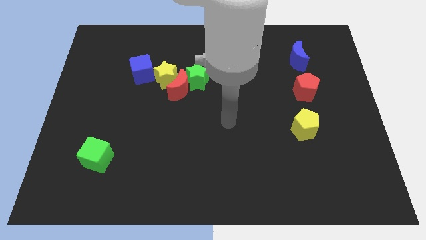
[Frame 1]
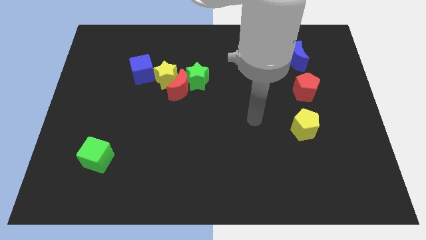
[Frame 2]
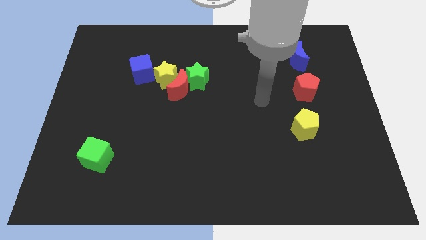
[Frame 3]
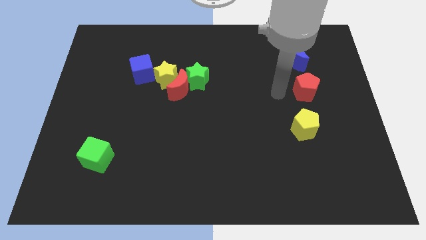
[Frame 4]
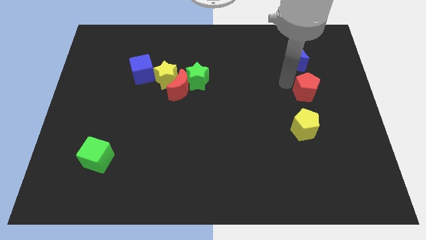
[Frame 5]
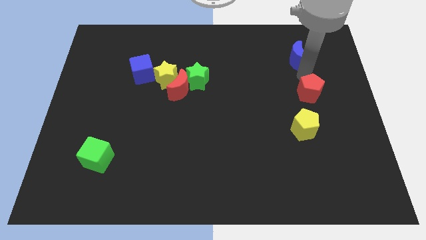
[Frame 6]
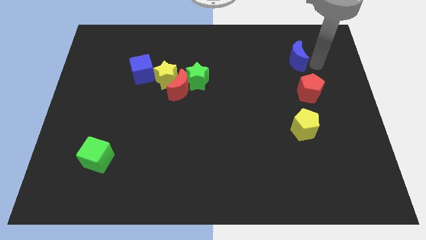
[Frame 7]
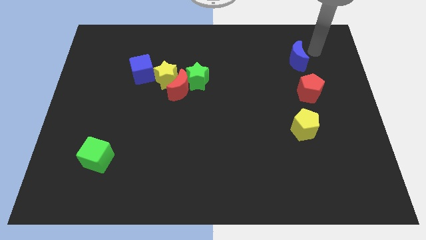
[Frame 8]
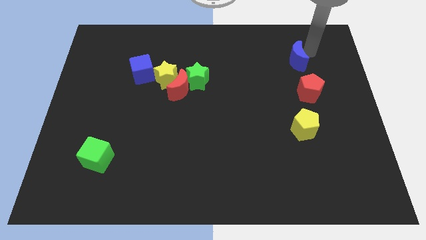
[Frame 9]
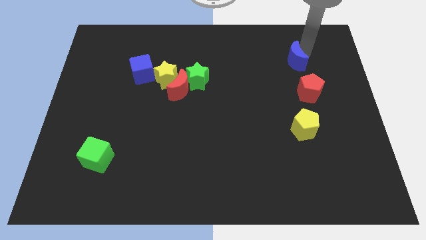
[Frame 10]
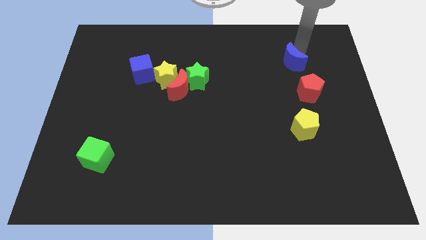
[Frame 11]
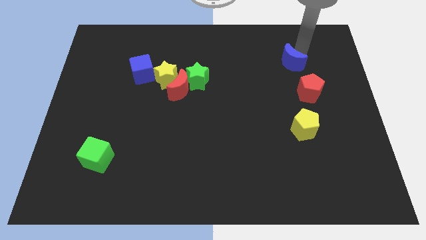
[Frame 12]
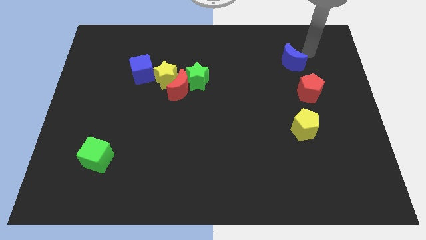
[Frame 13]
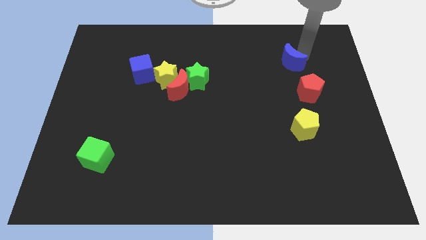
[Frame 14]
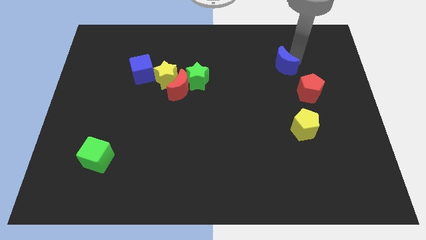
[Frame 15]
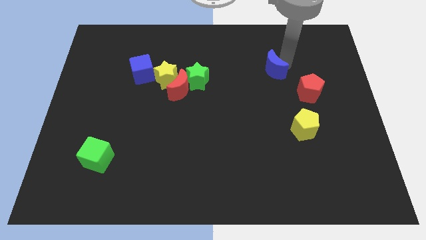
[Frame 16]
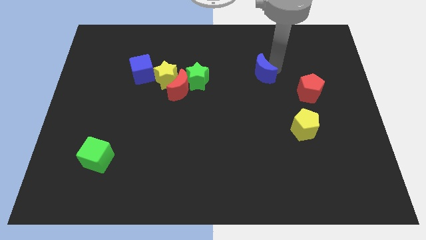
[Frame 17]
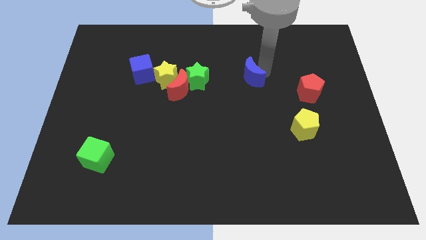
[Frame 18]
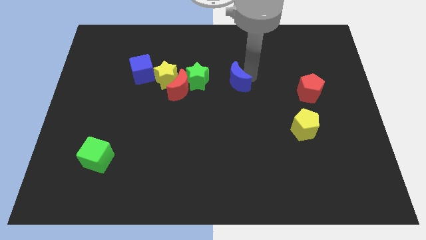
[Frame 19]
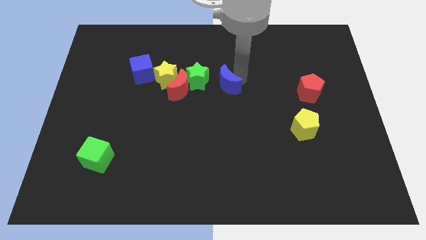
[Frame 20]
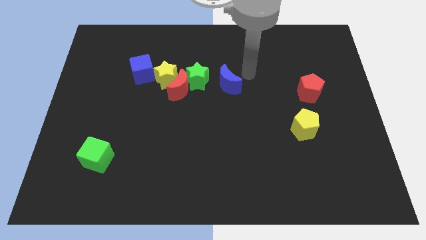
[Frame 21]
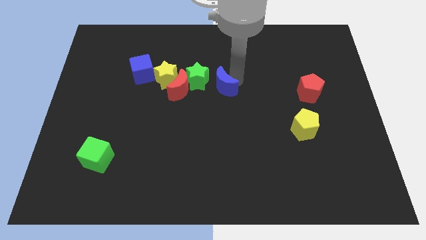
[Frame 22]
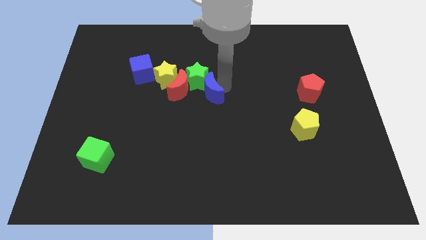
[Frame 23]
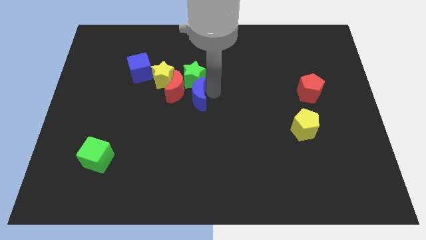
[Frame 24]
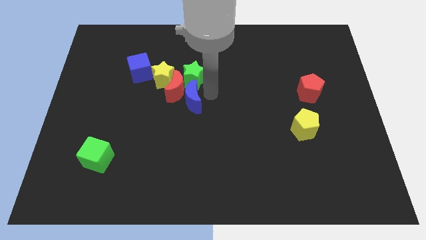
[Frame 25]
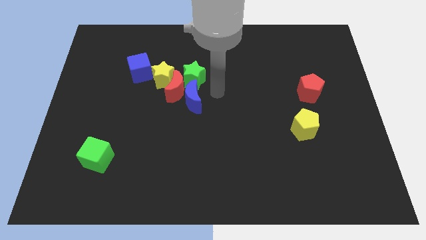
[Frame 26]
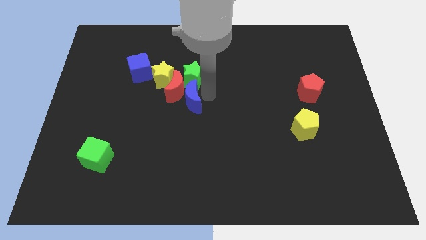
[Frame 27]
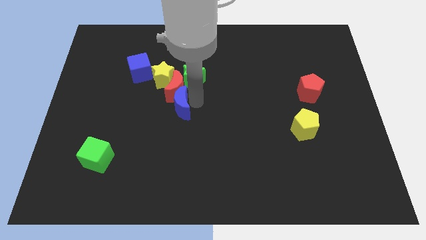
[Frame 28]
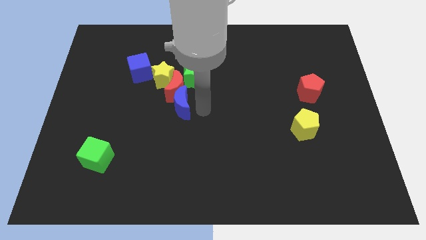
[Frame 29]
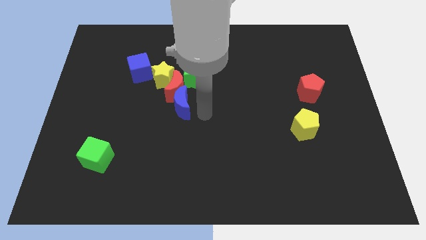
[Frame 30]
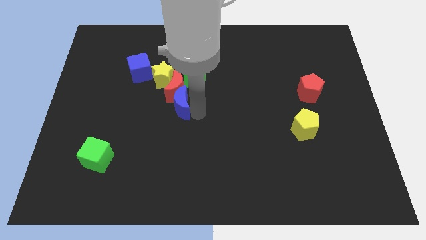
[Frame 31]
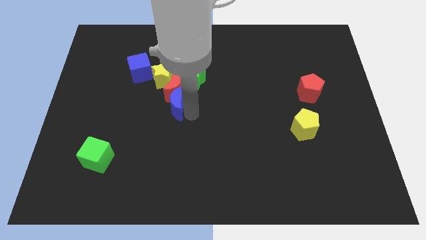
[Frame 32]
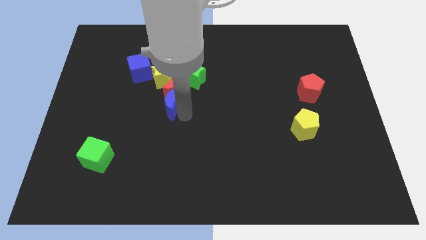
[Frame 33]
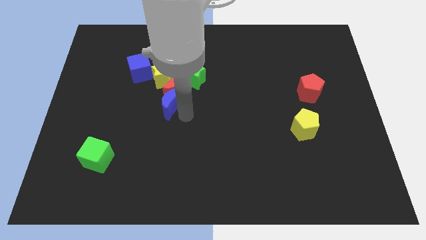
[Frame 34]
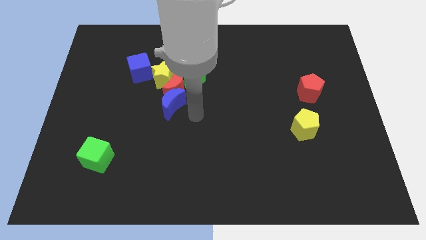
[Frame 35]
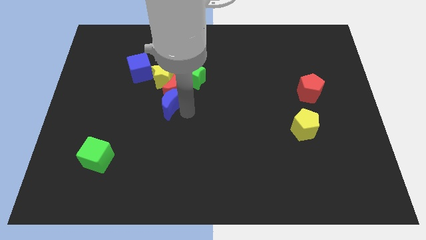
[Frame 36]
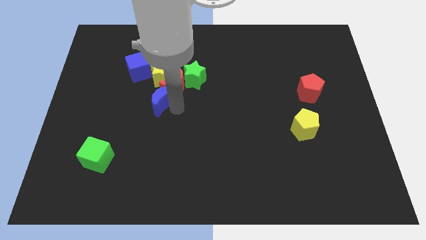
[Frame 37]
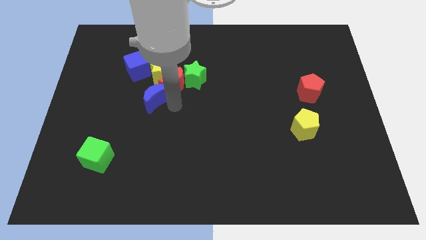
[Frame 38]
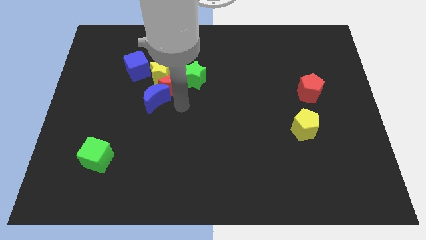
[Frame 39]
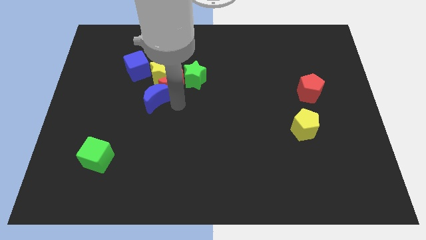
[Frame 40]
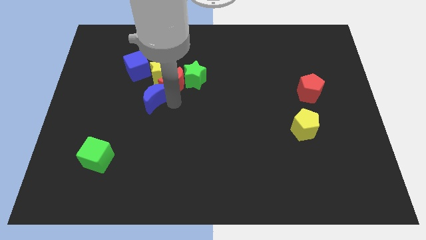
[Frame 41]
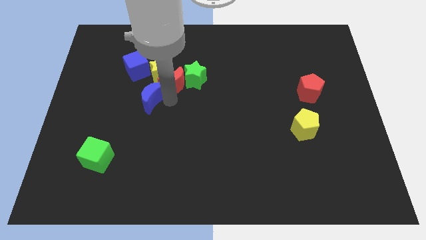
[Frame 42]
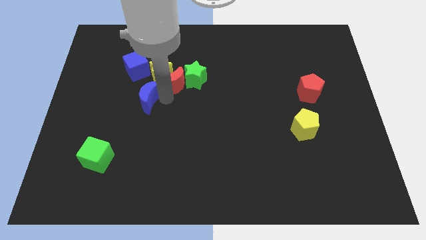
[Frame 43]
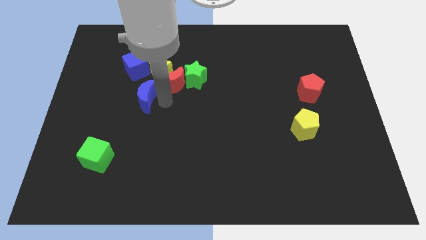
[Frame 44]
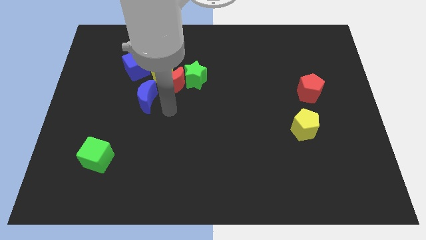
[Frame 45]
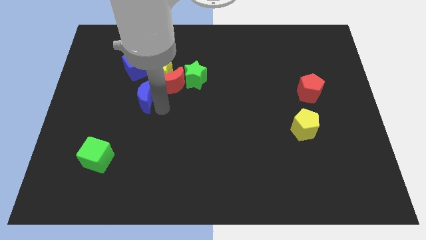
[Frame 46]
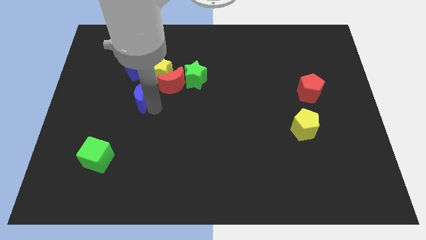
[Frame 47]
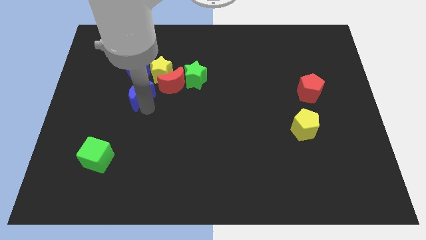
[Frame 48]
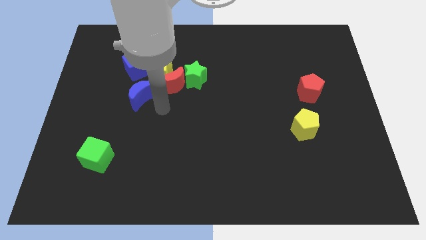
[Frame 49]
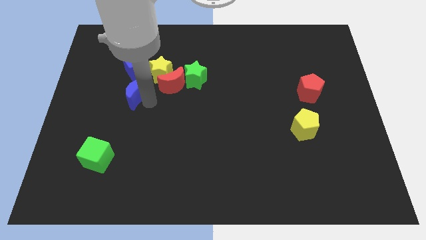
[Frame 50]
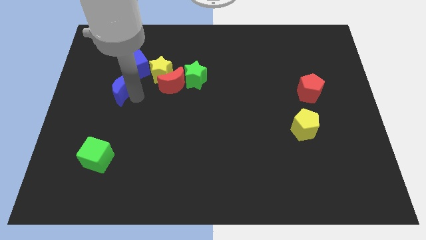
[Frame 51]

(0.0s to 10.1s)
push the blue moon to the bottom left side of the blue cube

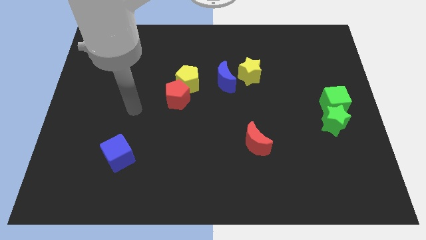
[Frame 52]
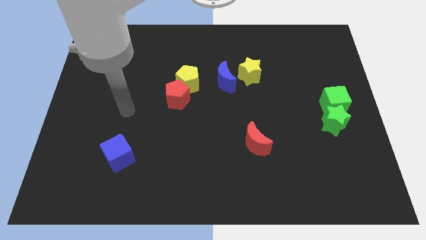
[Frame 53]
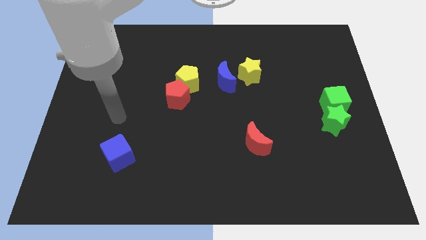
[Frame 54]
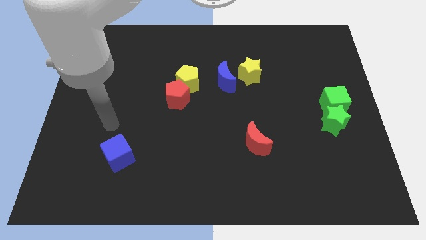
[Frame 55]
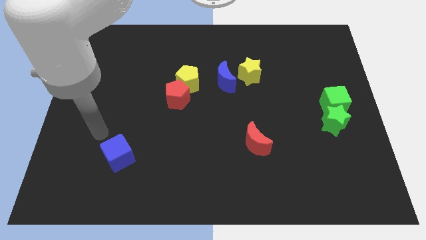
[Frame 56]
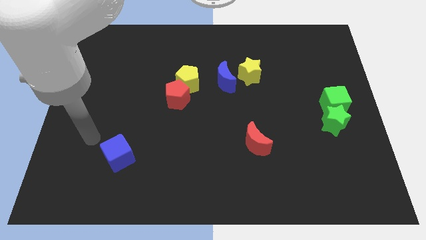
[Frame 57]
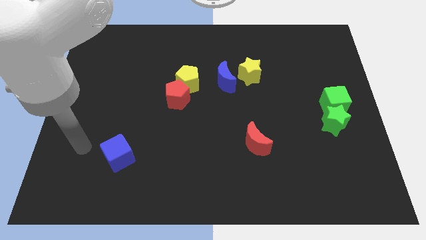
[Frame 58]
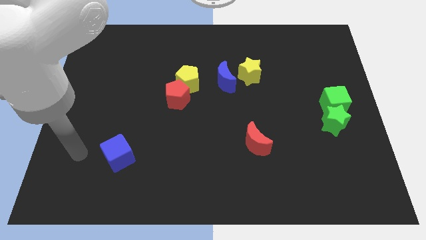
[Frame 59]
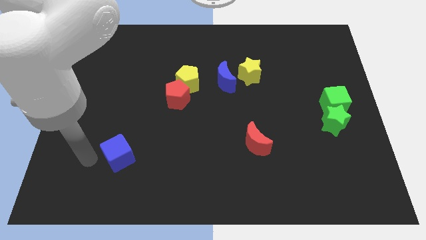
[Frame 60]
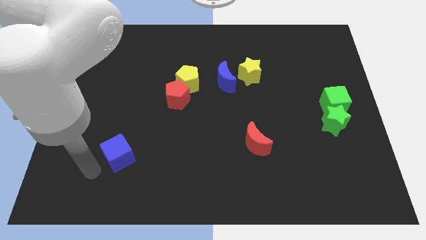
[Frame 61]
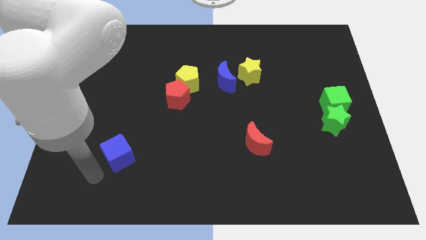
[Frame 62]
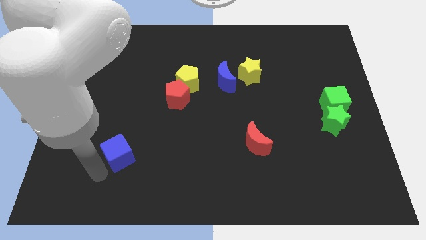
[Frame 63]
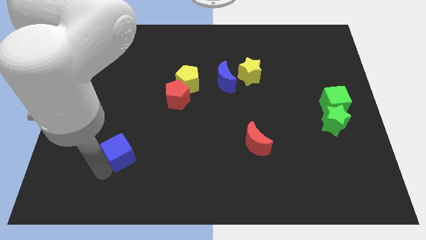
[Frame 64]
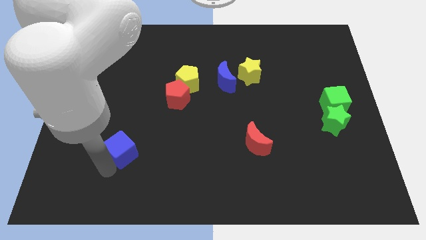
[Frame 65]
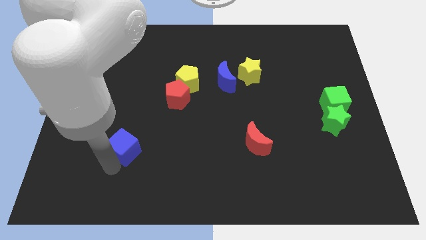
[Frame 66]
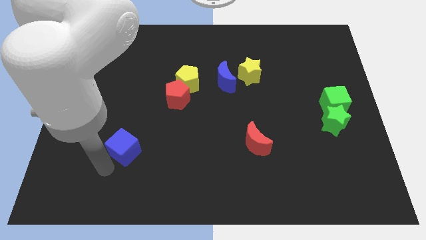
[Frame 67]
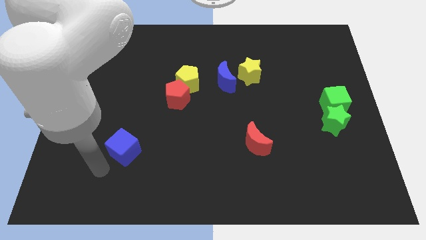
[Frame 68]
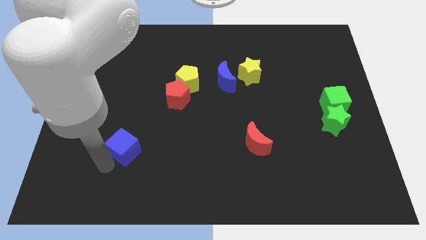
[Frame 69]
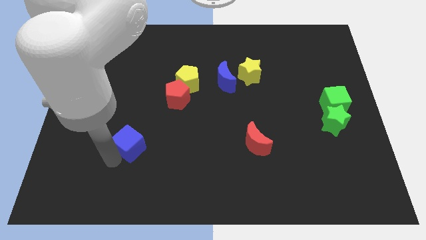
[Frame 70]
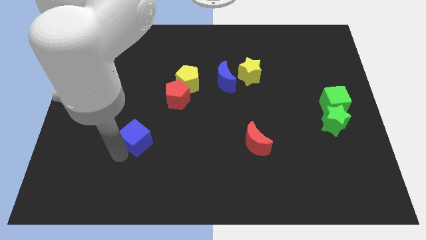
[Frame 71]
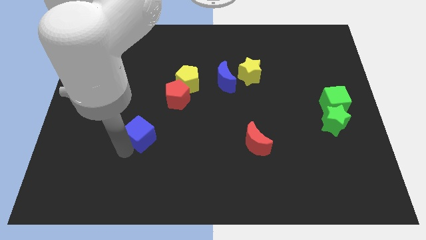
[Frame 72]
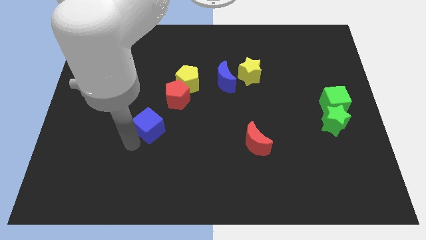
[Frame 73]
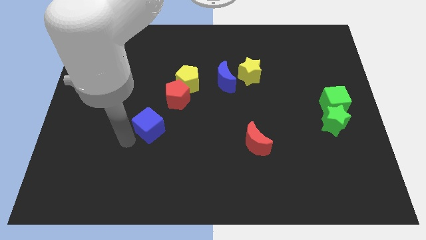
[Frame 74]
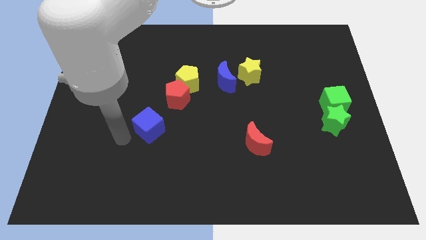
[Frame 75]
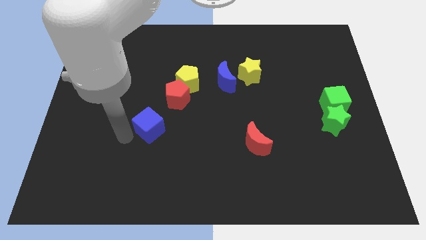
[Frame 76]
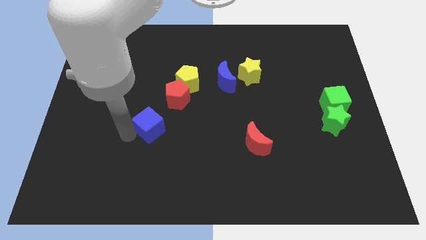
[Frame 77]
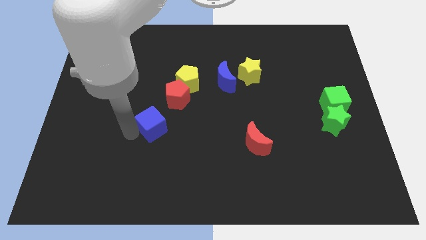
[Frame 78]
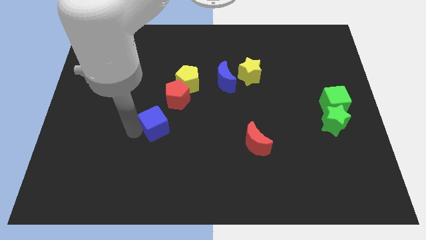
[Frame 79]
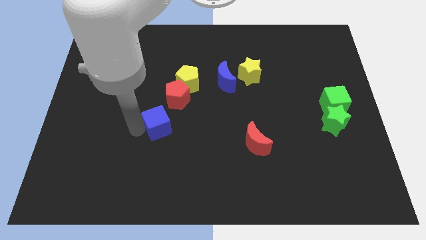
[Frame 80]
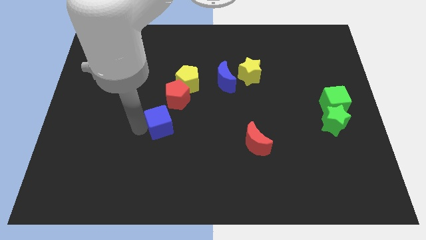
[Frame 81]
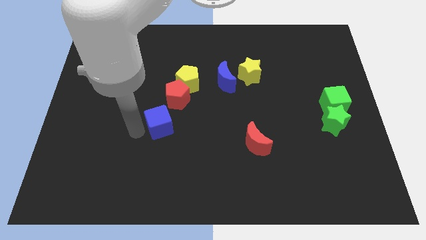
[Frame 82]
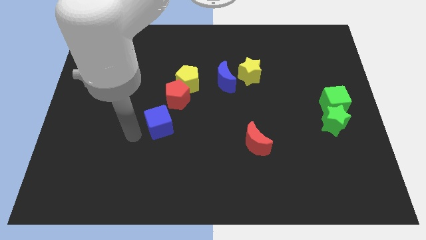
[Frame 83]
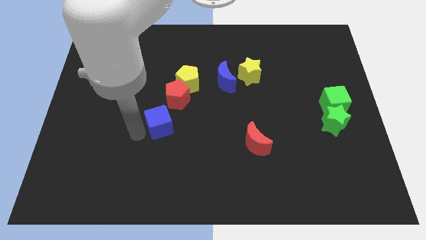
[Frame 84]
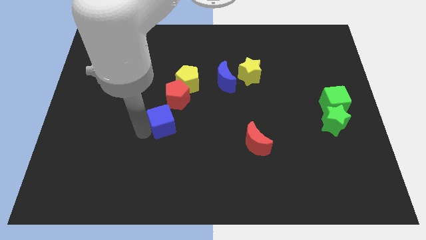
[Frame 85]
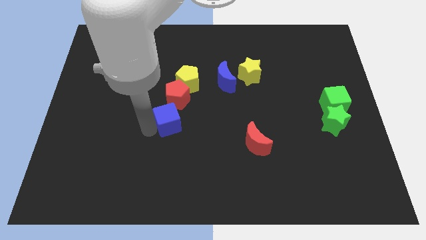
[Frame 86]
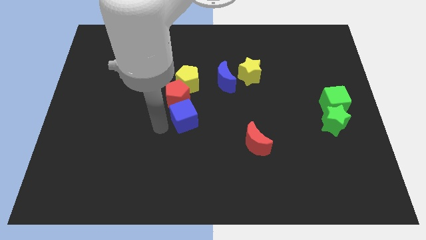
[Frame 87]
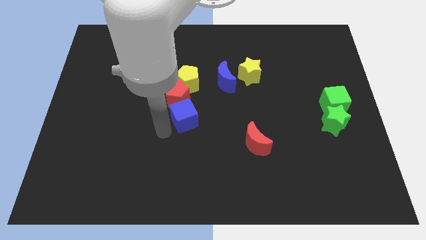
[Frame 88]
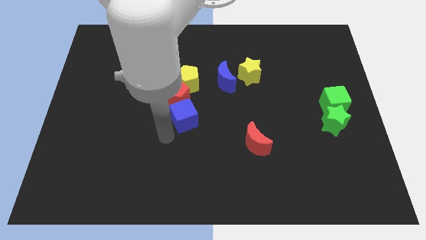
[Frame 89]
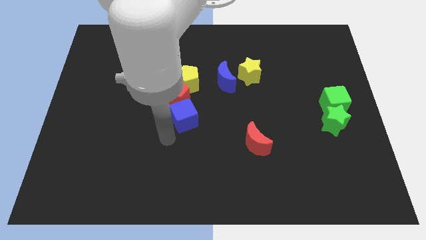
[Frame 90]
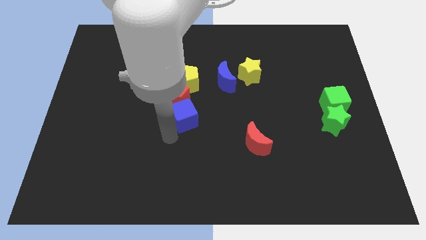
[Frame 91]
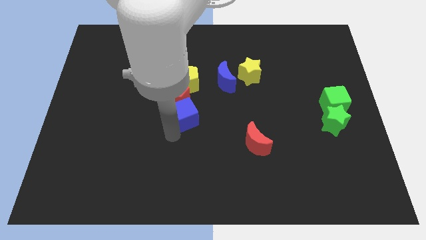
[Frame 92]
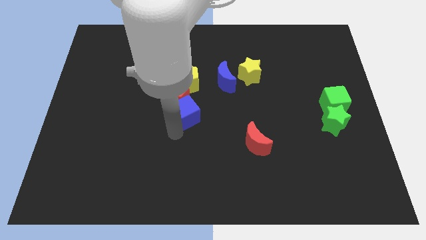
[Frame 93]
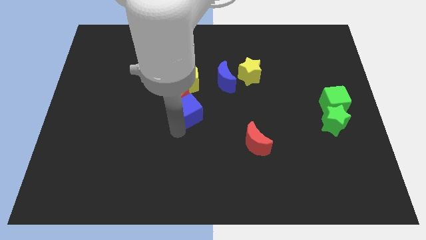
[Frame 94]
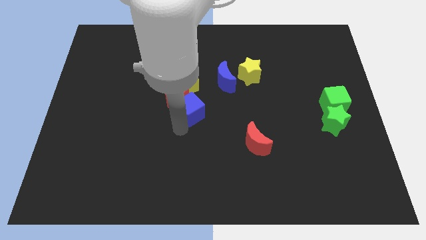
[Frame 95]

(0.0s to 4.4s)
slide the blue cube diagonally down and to the left of the blue moon
